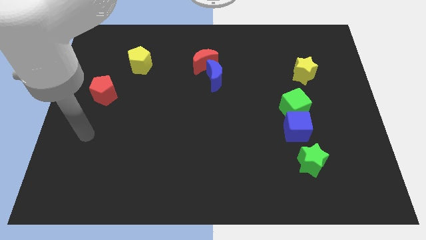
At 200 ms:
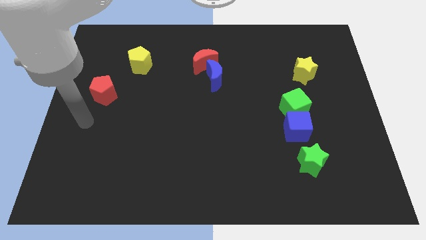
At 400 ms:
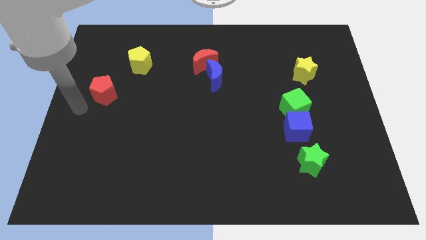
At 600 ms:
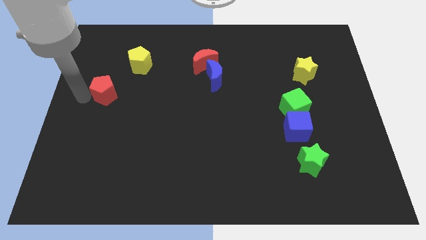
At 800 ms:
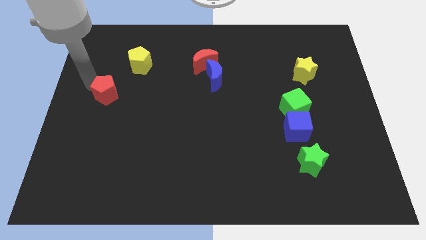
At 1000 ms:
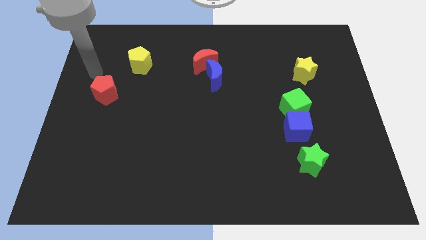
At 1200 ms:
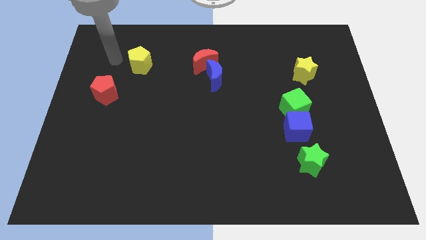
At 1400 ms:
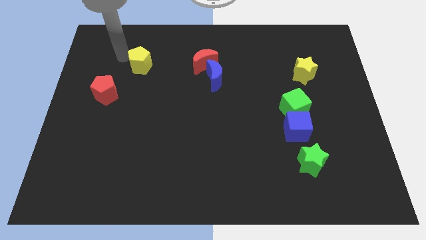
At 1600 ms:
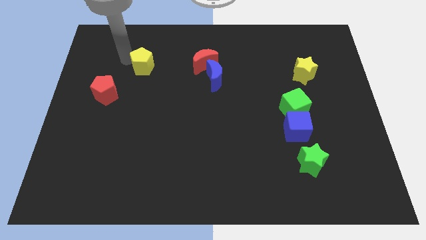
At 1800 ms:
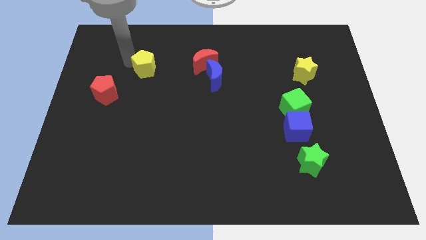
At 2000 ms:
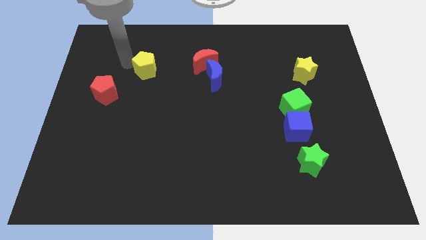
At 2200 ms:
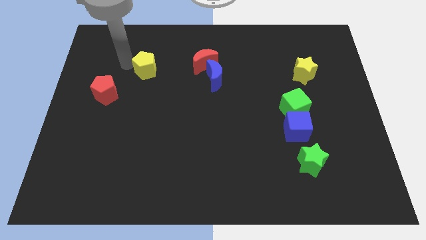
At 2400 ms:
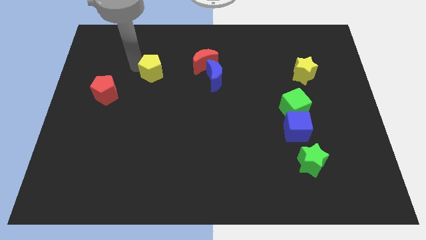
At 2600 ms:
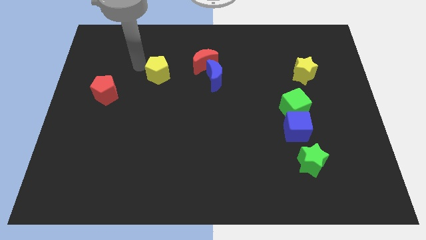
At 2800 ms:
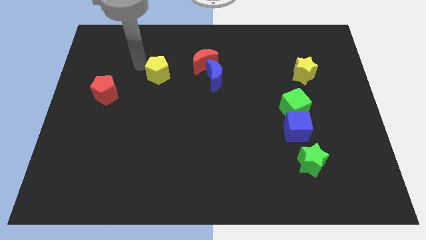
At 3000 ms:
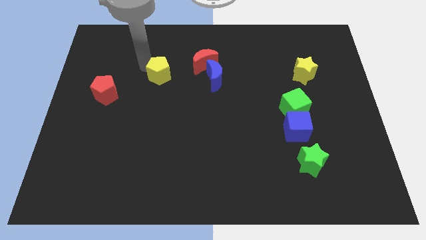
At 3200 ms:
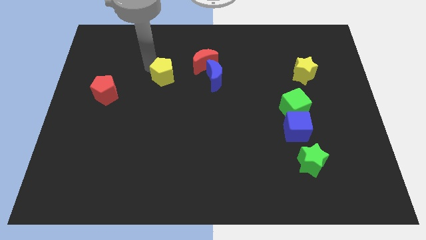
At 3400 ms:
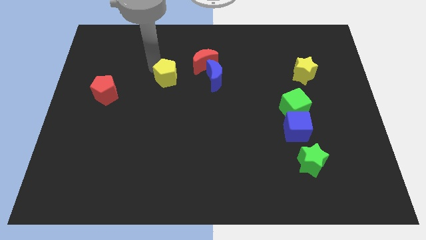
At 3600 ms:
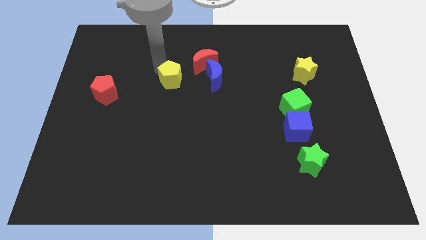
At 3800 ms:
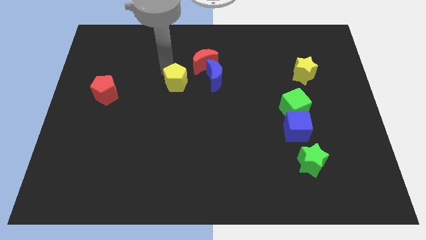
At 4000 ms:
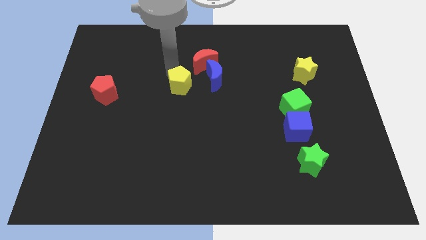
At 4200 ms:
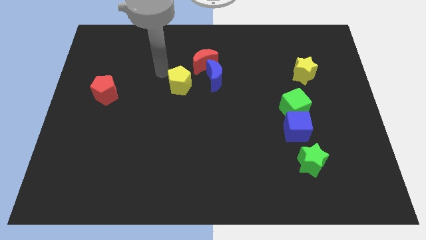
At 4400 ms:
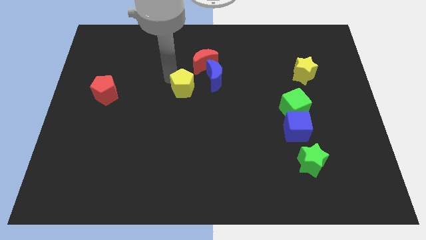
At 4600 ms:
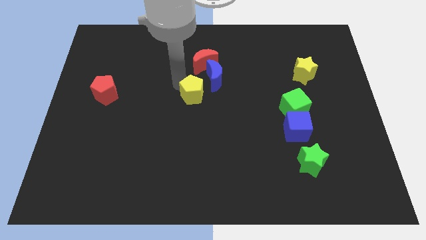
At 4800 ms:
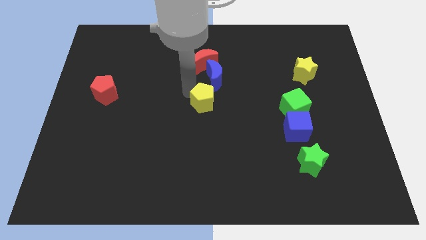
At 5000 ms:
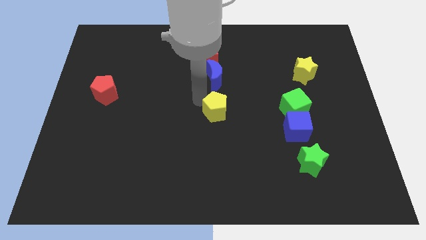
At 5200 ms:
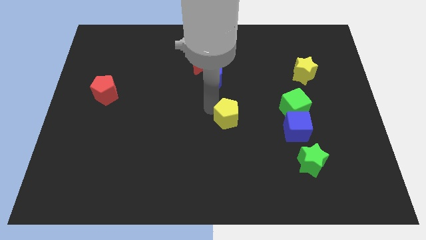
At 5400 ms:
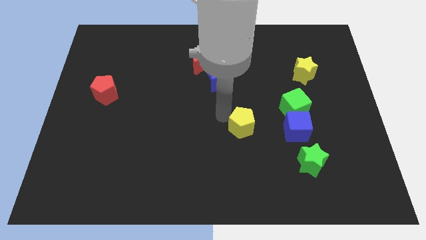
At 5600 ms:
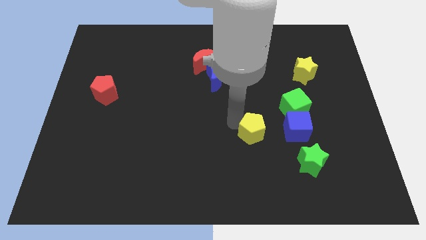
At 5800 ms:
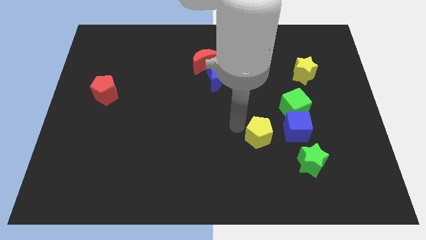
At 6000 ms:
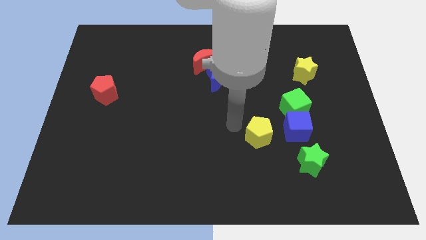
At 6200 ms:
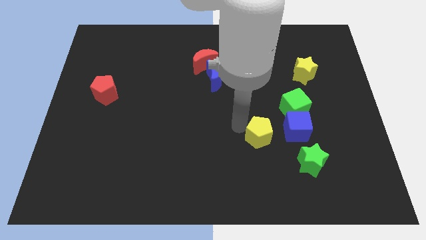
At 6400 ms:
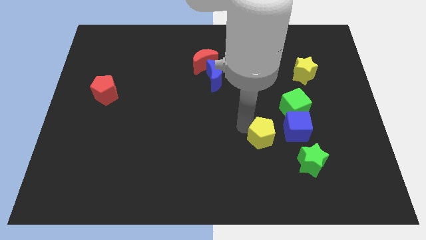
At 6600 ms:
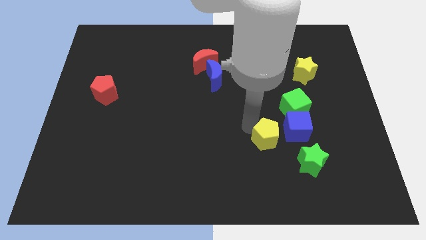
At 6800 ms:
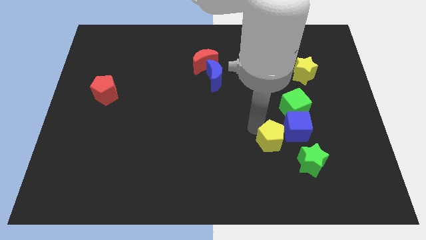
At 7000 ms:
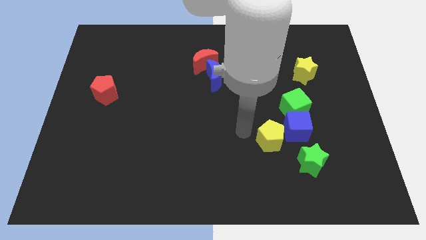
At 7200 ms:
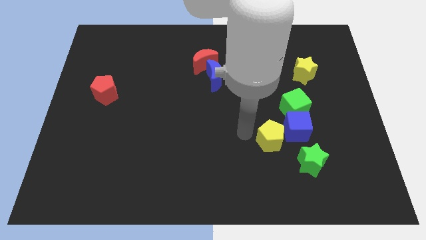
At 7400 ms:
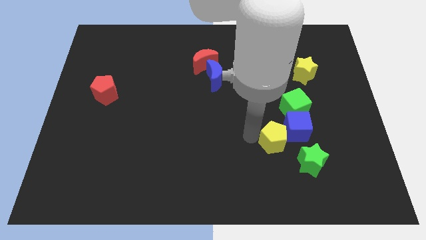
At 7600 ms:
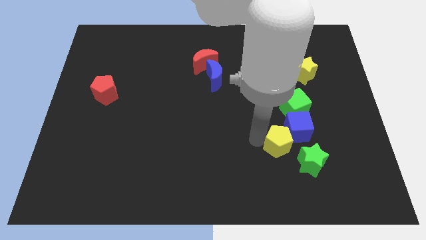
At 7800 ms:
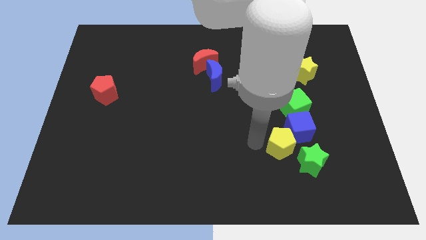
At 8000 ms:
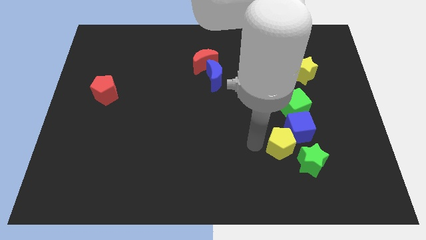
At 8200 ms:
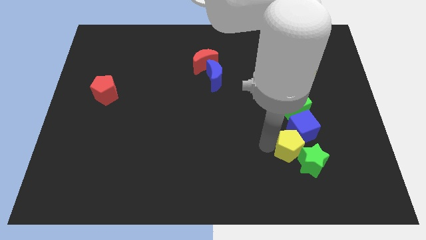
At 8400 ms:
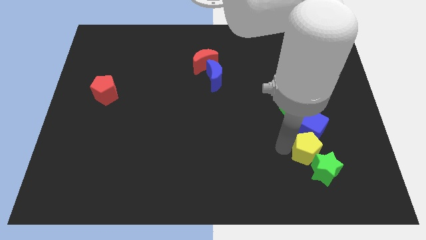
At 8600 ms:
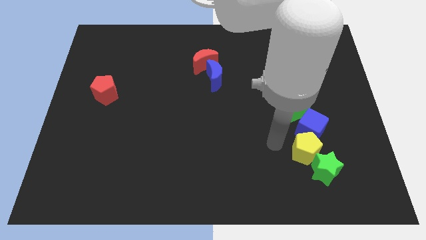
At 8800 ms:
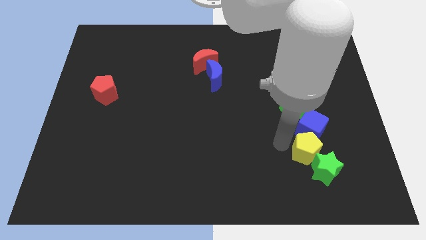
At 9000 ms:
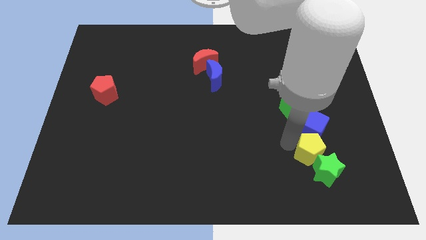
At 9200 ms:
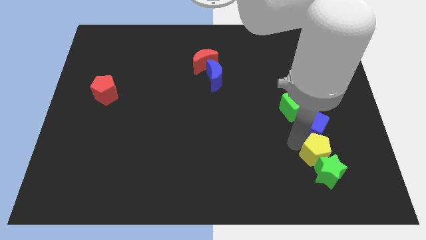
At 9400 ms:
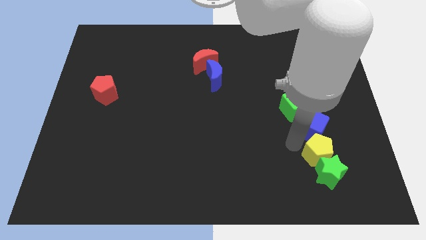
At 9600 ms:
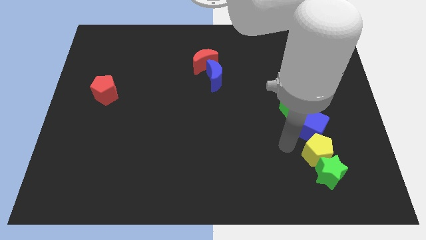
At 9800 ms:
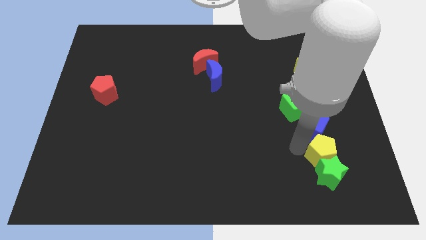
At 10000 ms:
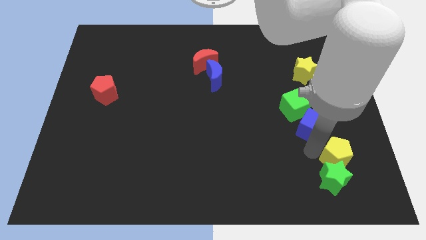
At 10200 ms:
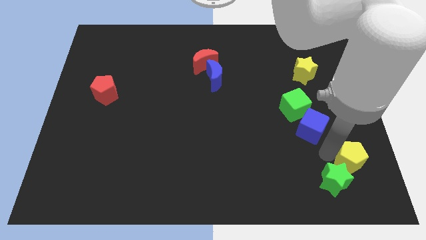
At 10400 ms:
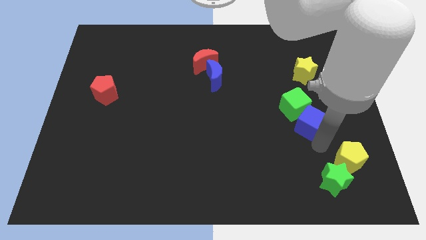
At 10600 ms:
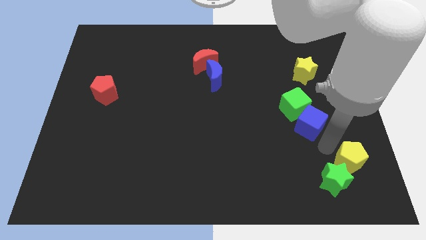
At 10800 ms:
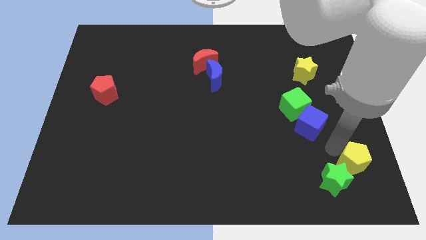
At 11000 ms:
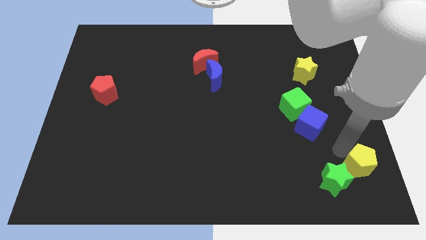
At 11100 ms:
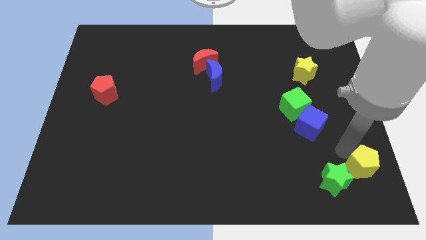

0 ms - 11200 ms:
move the yellow pentagon to the lower right corner

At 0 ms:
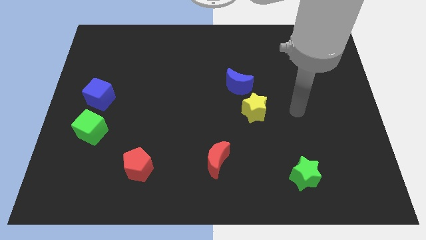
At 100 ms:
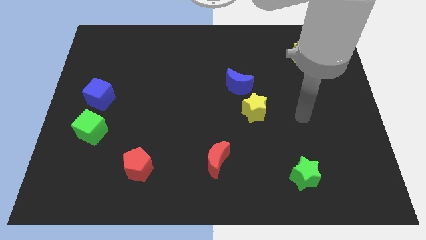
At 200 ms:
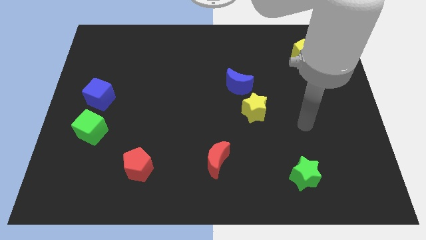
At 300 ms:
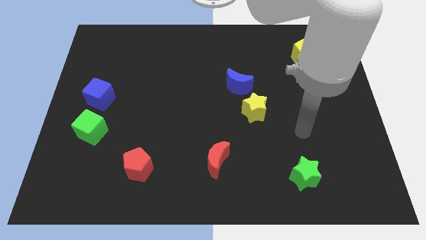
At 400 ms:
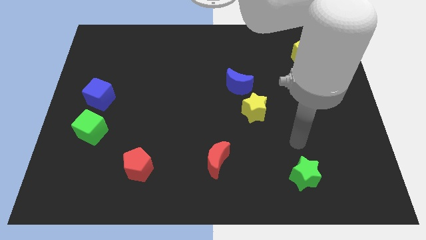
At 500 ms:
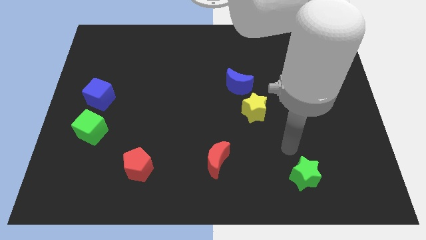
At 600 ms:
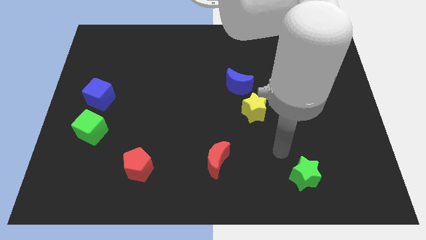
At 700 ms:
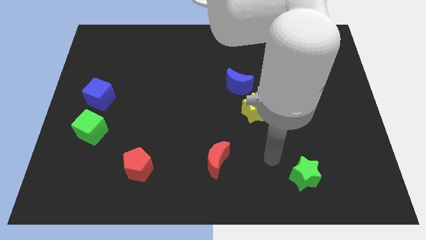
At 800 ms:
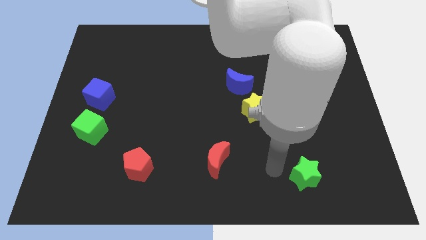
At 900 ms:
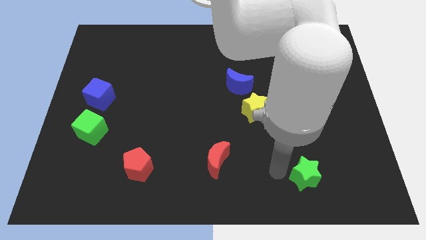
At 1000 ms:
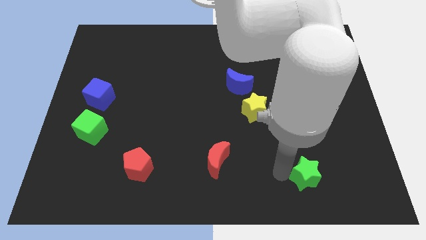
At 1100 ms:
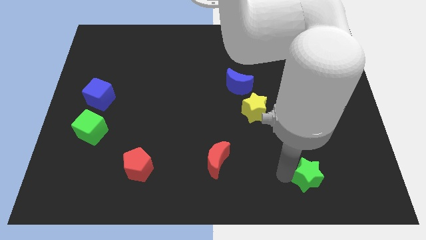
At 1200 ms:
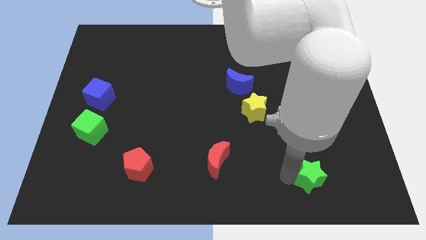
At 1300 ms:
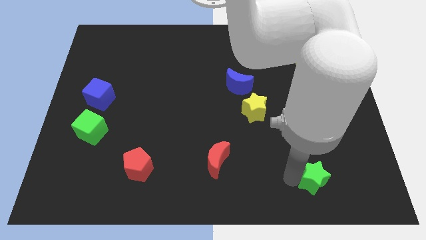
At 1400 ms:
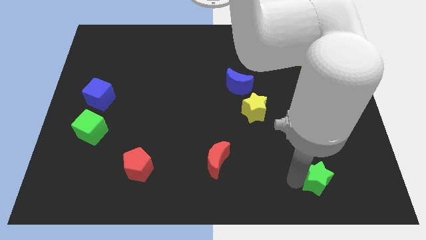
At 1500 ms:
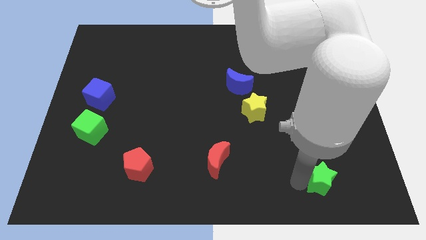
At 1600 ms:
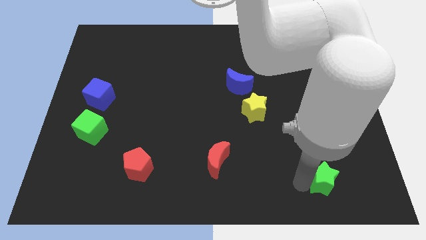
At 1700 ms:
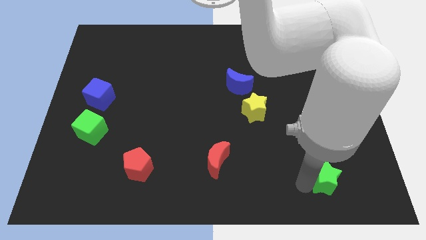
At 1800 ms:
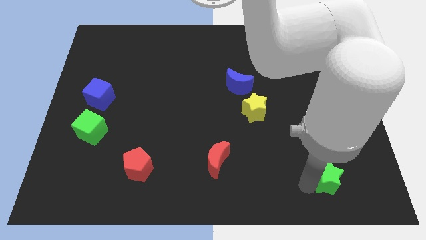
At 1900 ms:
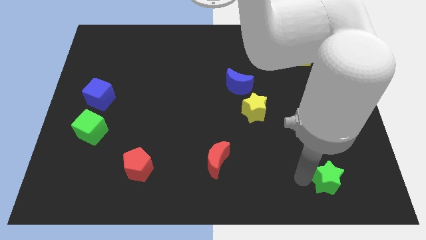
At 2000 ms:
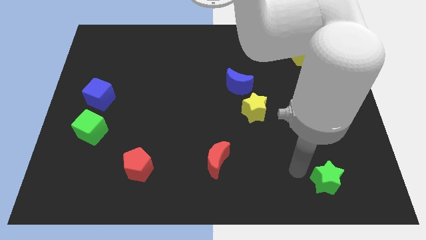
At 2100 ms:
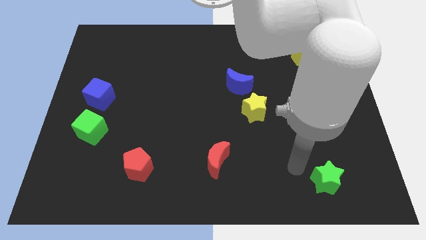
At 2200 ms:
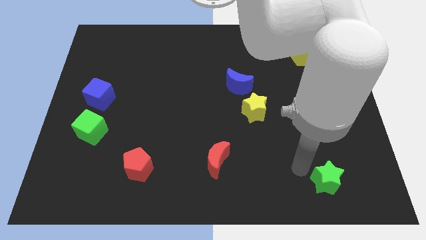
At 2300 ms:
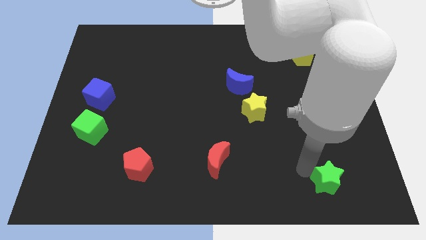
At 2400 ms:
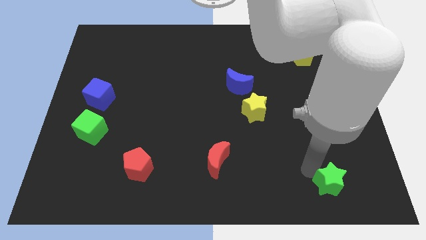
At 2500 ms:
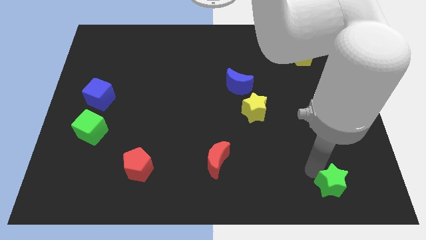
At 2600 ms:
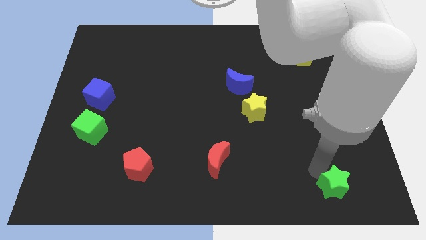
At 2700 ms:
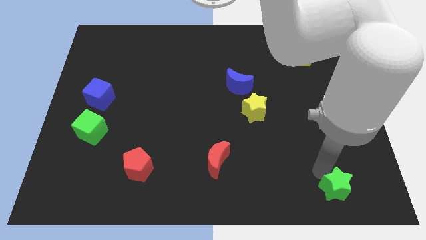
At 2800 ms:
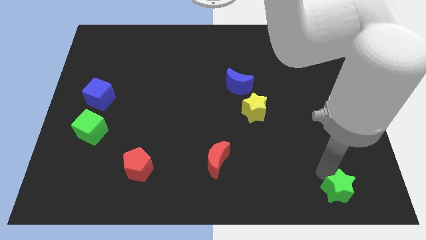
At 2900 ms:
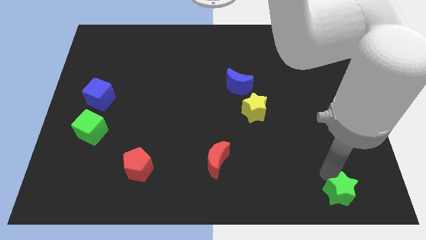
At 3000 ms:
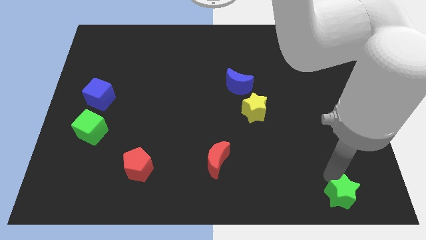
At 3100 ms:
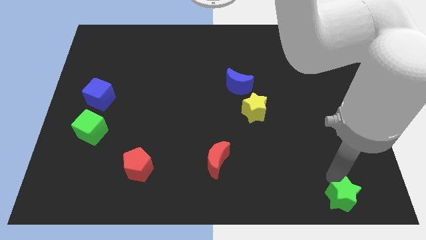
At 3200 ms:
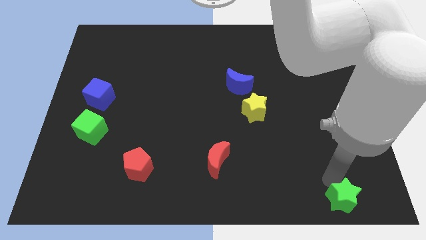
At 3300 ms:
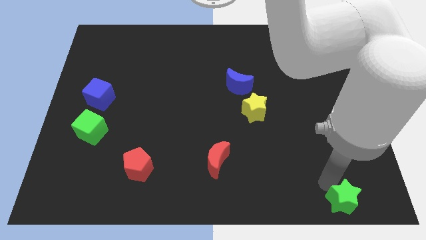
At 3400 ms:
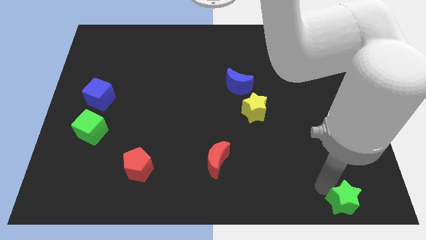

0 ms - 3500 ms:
move the green star to the lower right corner
